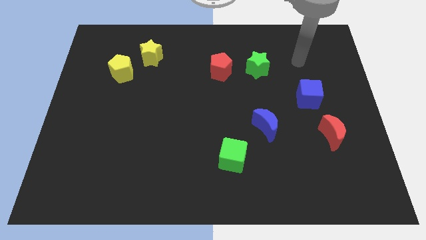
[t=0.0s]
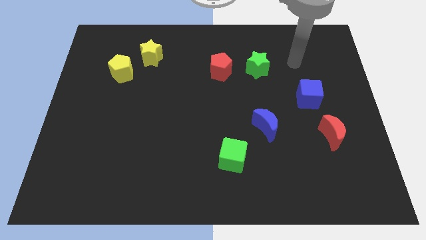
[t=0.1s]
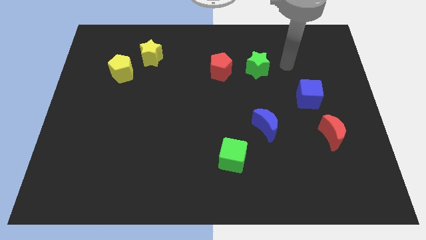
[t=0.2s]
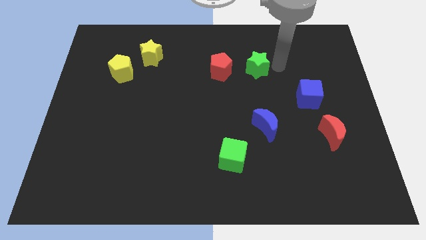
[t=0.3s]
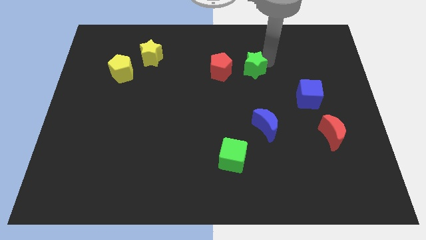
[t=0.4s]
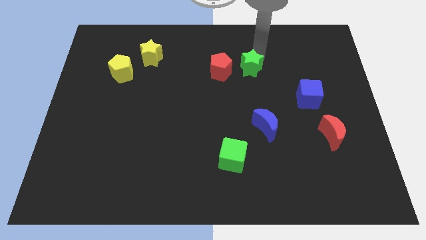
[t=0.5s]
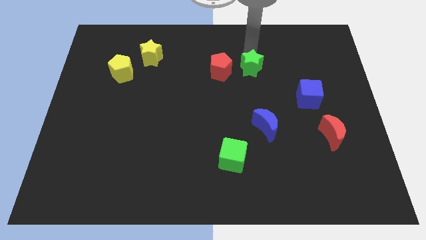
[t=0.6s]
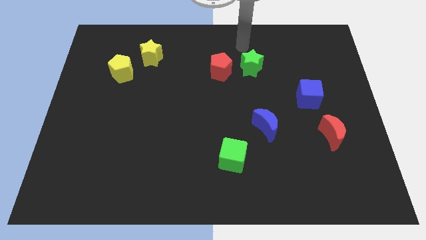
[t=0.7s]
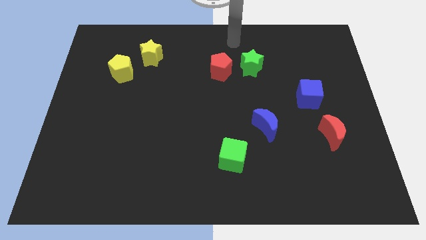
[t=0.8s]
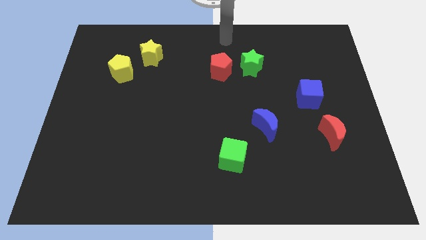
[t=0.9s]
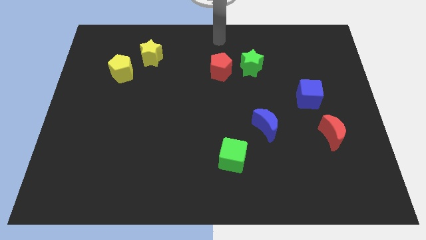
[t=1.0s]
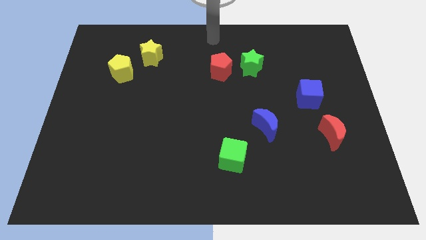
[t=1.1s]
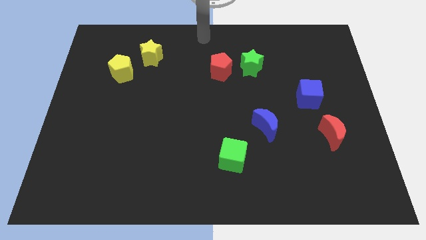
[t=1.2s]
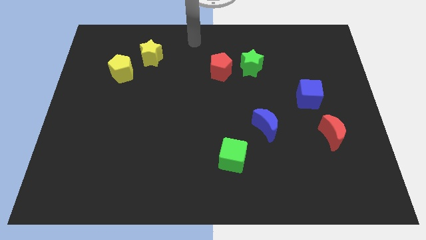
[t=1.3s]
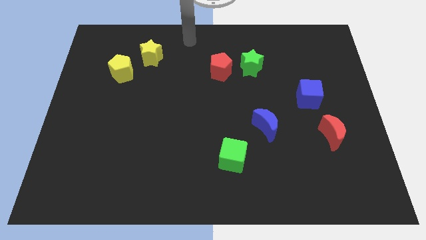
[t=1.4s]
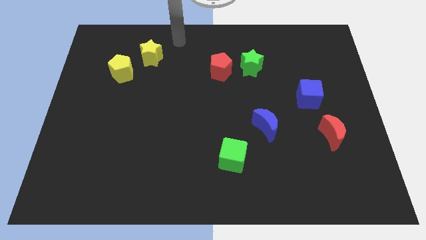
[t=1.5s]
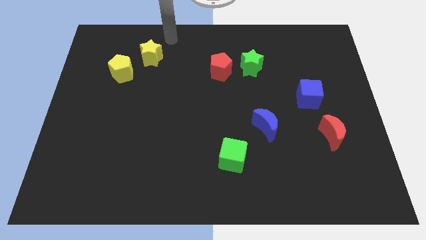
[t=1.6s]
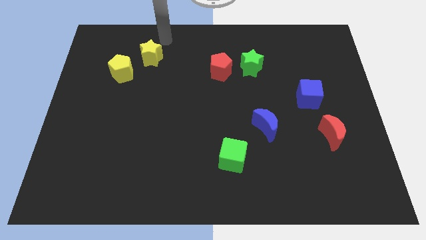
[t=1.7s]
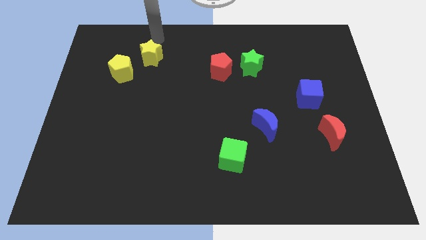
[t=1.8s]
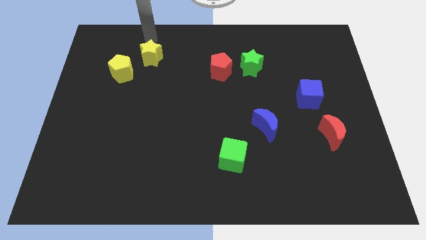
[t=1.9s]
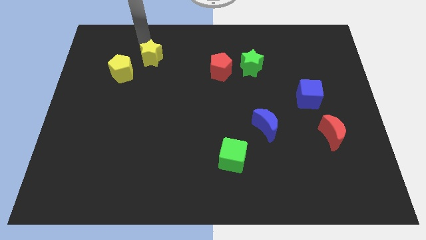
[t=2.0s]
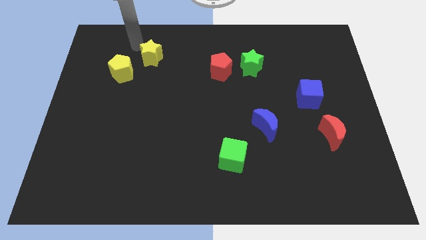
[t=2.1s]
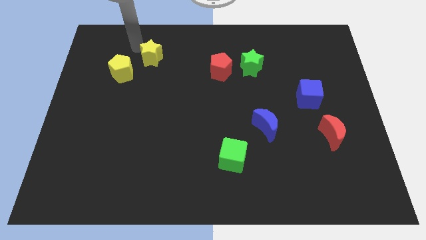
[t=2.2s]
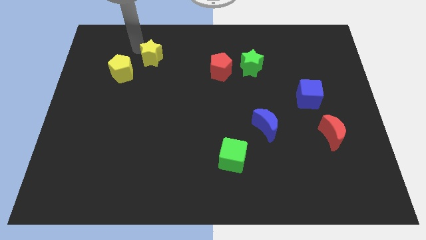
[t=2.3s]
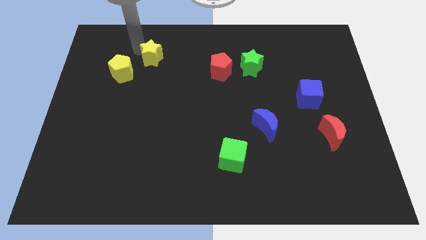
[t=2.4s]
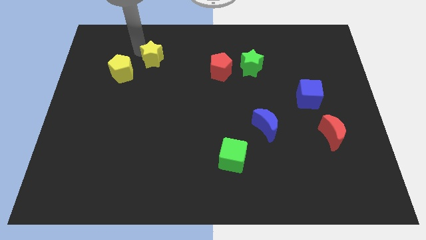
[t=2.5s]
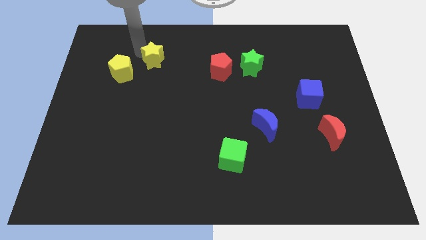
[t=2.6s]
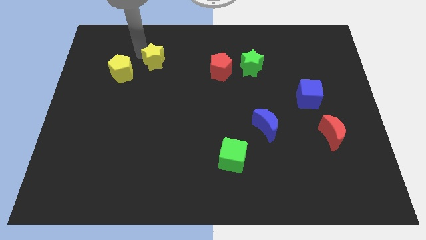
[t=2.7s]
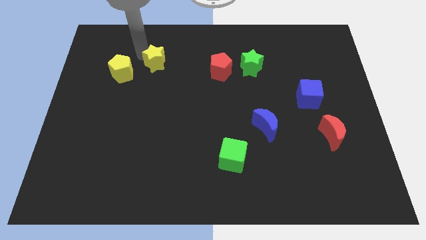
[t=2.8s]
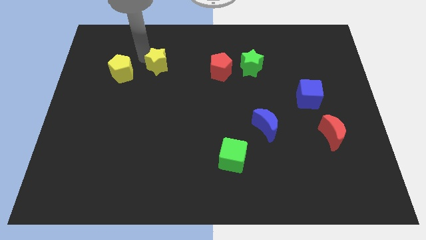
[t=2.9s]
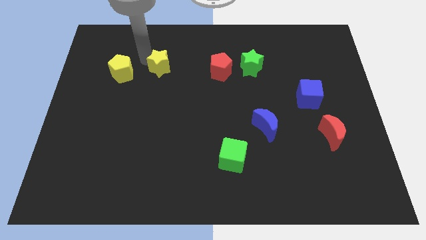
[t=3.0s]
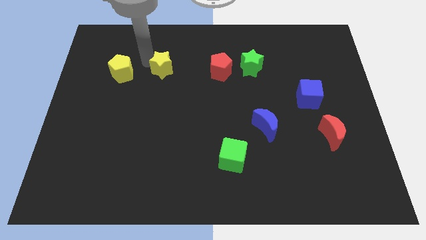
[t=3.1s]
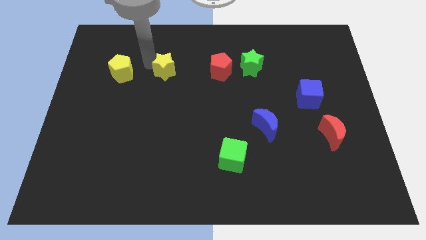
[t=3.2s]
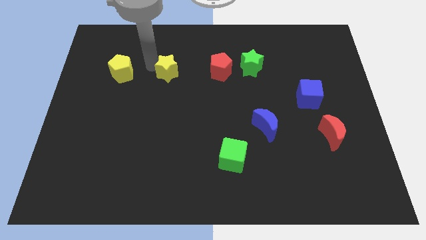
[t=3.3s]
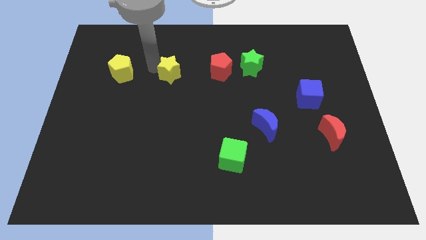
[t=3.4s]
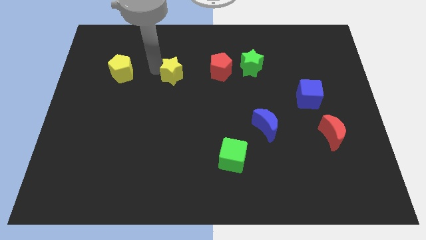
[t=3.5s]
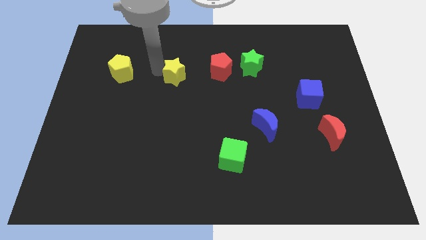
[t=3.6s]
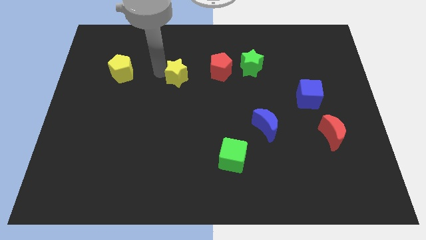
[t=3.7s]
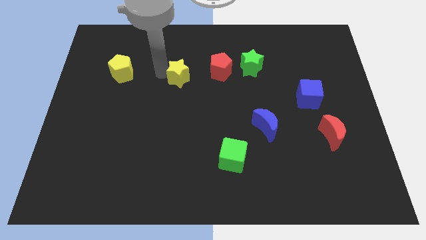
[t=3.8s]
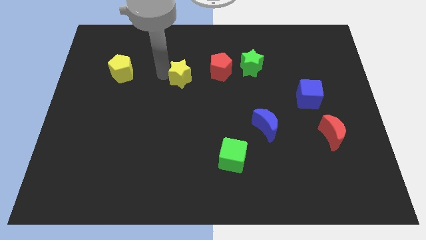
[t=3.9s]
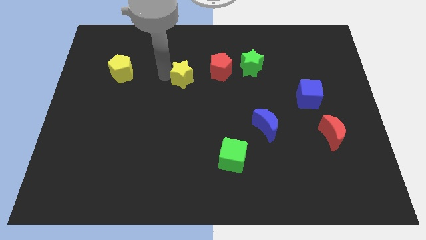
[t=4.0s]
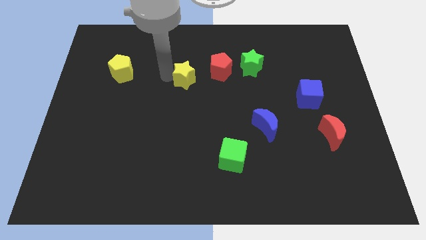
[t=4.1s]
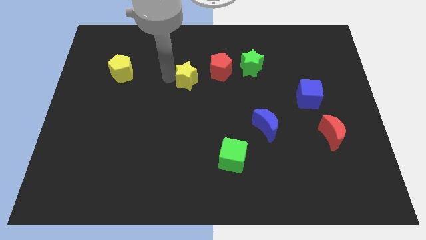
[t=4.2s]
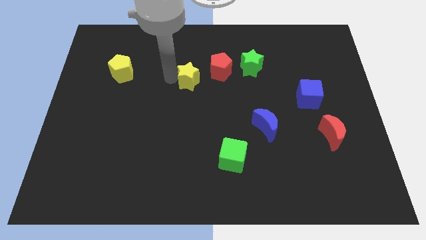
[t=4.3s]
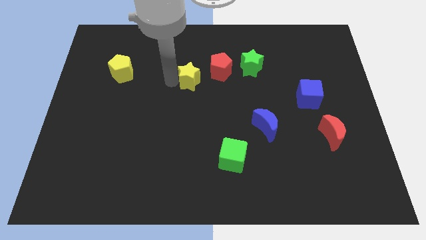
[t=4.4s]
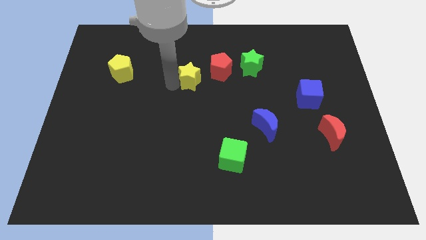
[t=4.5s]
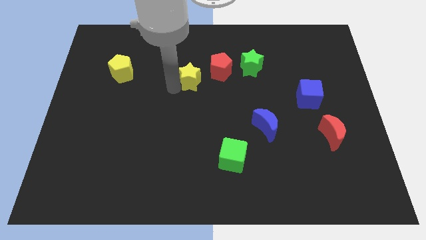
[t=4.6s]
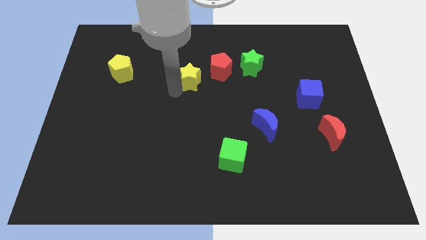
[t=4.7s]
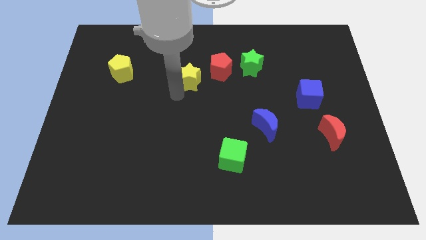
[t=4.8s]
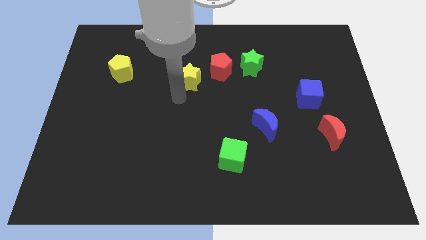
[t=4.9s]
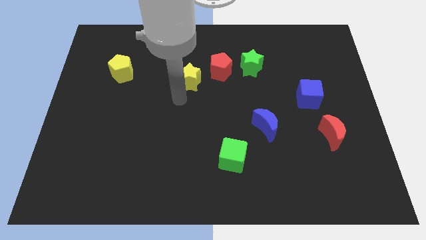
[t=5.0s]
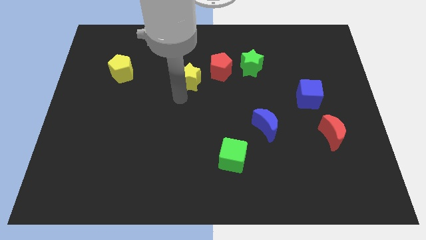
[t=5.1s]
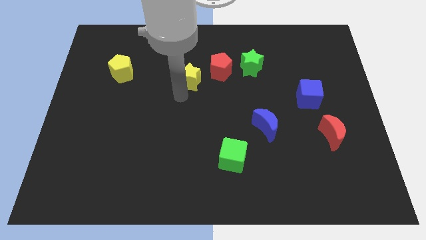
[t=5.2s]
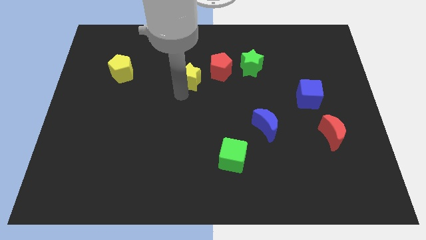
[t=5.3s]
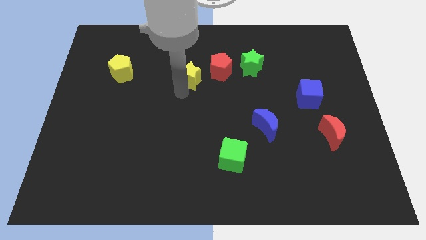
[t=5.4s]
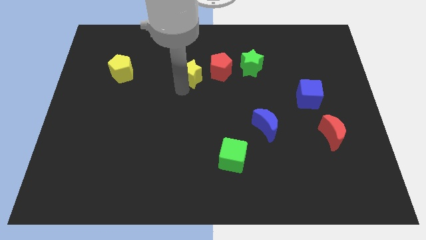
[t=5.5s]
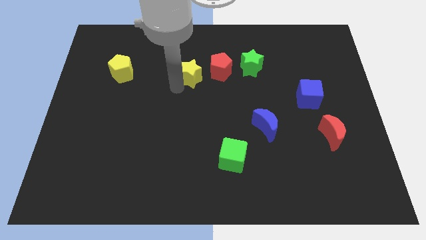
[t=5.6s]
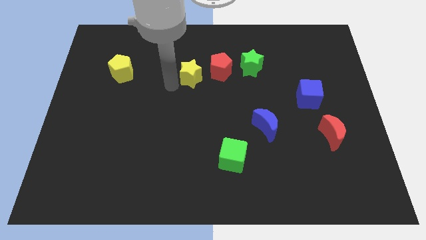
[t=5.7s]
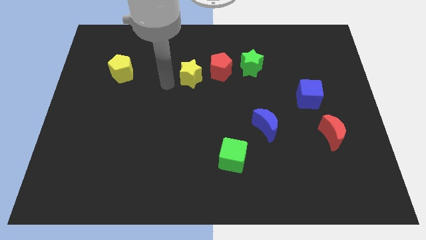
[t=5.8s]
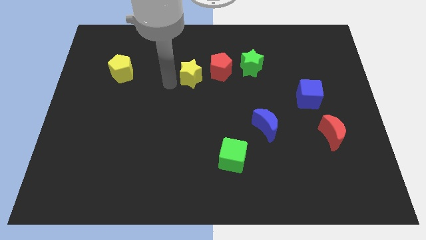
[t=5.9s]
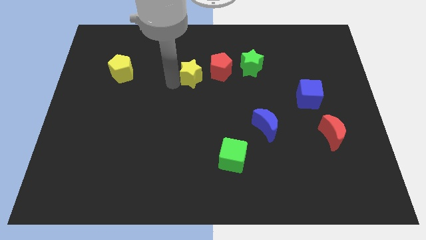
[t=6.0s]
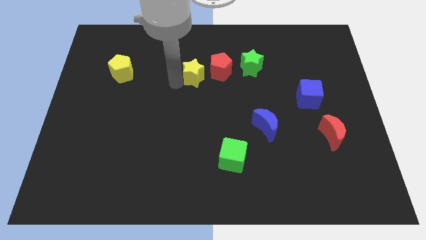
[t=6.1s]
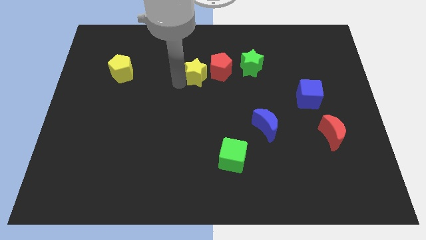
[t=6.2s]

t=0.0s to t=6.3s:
push the yellow star next to the red pentagon

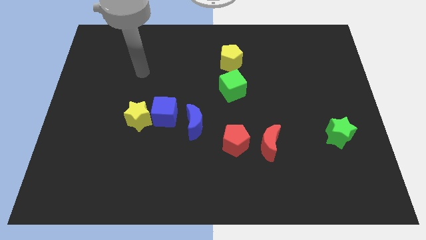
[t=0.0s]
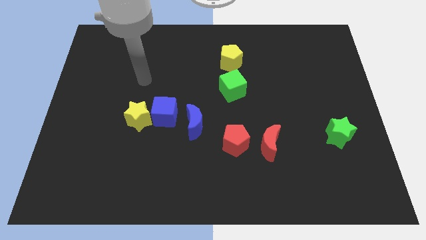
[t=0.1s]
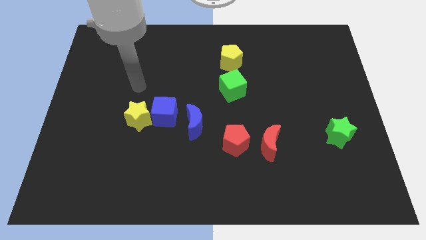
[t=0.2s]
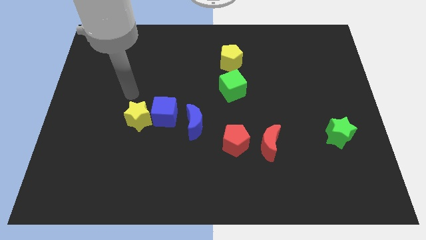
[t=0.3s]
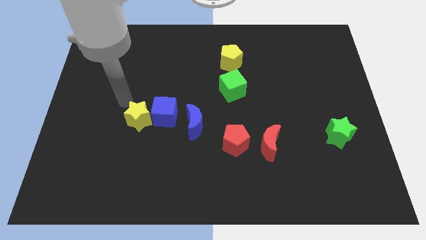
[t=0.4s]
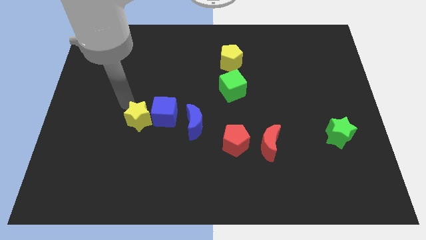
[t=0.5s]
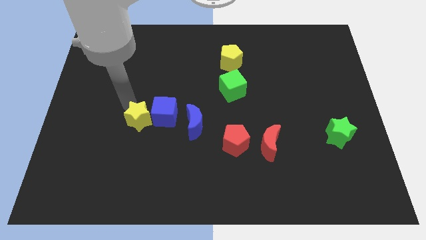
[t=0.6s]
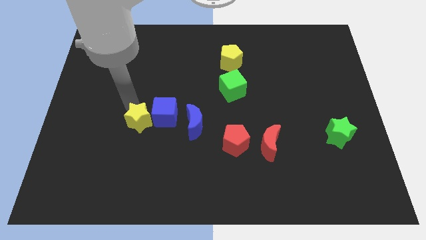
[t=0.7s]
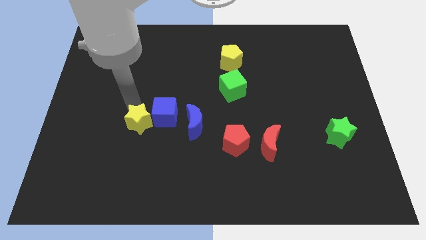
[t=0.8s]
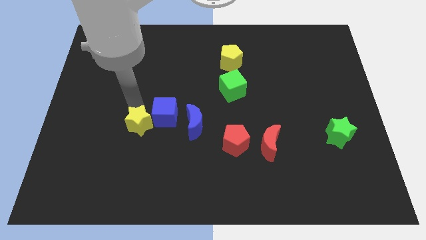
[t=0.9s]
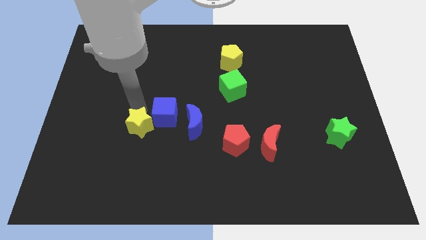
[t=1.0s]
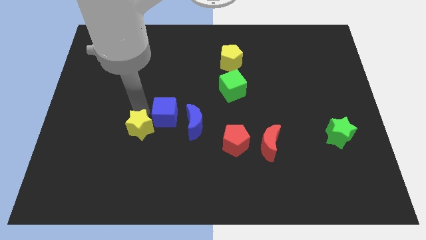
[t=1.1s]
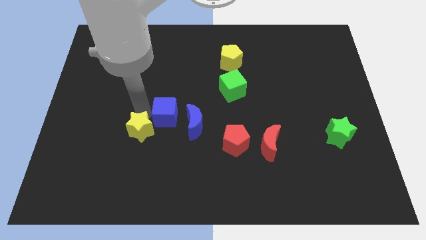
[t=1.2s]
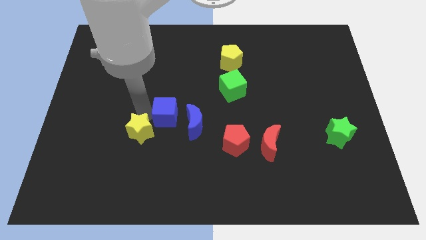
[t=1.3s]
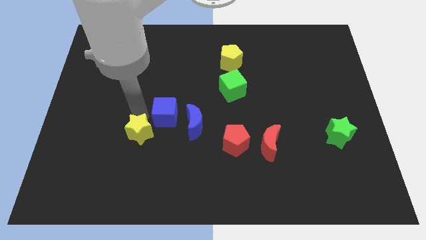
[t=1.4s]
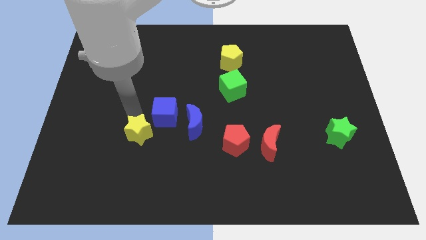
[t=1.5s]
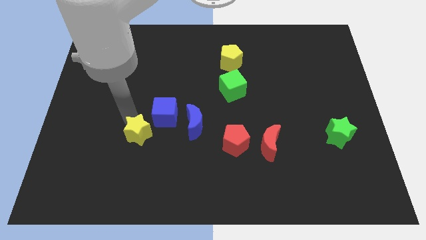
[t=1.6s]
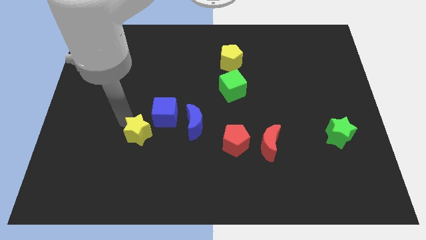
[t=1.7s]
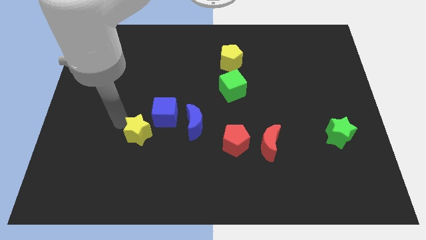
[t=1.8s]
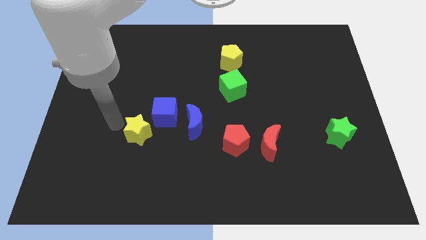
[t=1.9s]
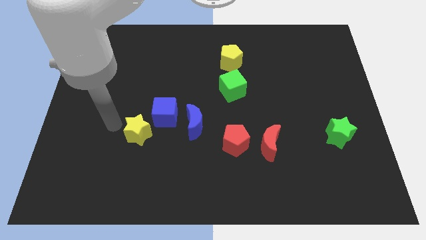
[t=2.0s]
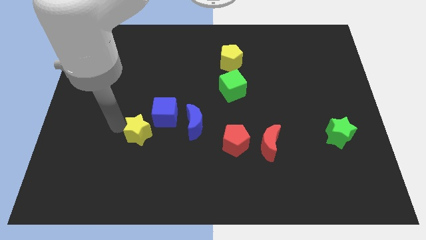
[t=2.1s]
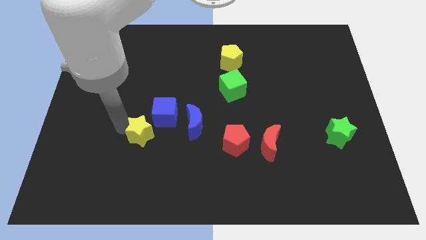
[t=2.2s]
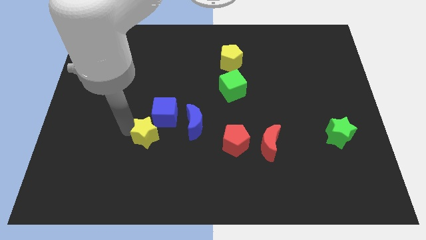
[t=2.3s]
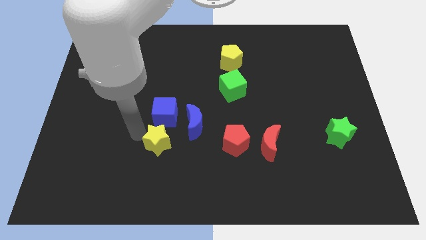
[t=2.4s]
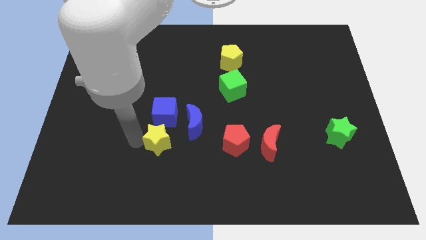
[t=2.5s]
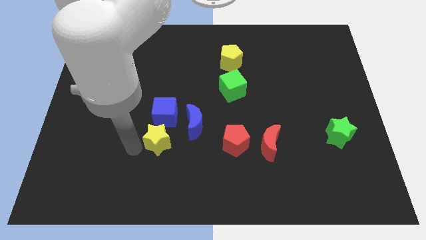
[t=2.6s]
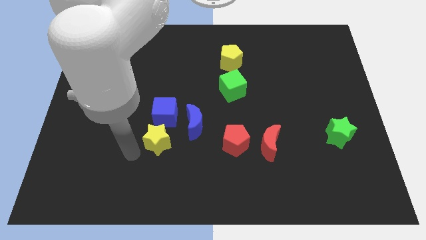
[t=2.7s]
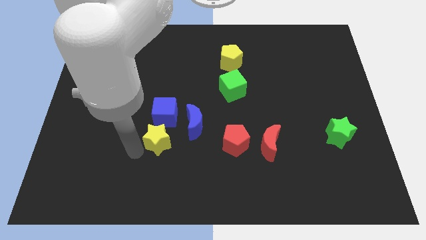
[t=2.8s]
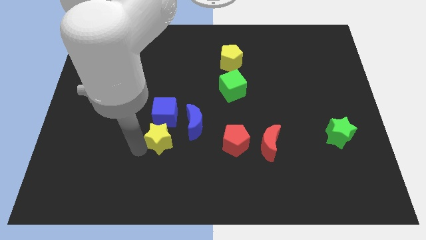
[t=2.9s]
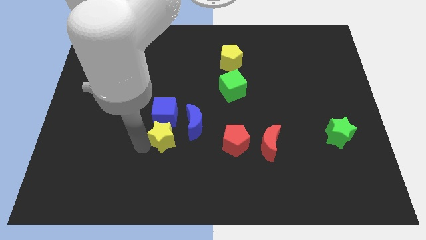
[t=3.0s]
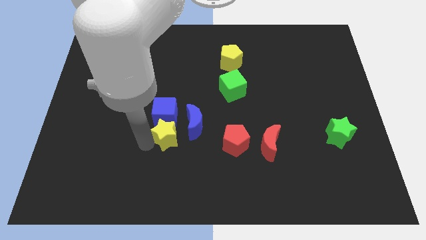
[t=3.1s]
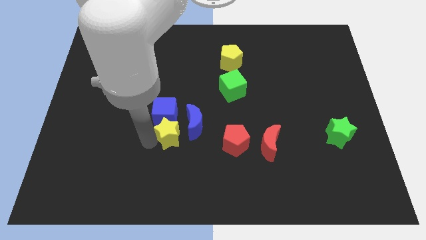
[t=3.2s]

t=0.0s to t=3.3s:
slide the yellow star next to the blue moon
